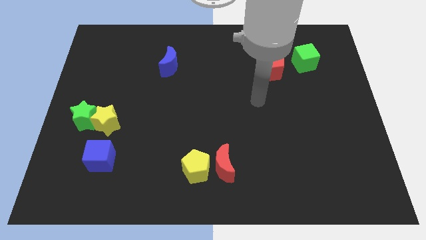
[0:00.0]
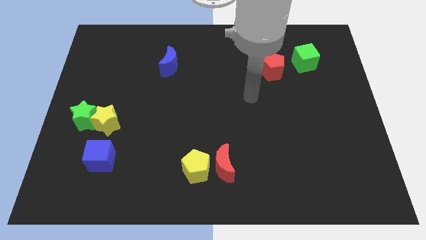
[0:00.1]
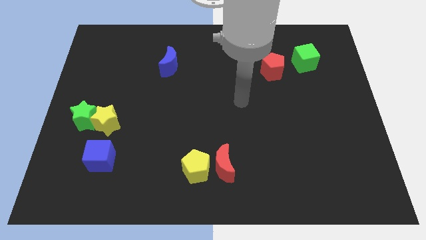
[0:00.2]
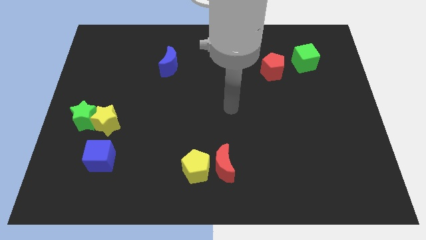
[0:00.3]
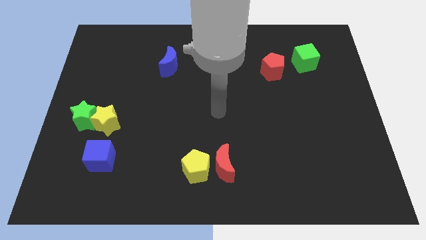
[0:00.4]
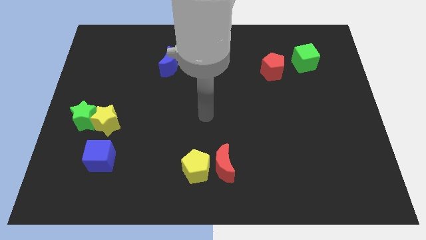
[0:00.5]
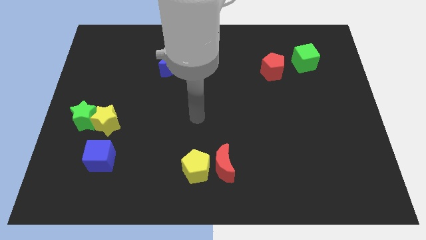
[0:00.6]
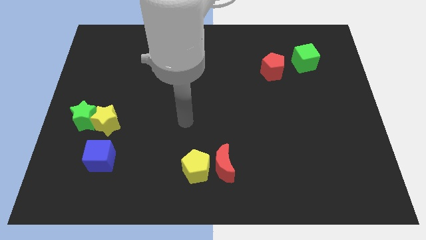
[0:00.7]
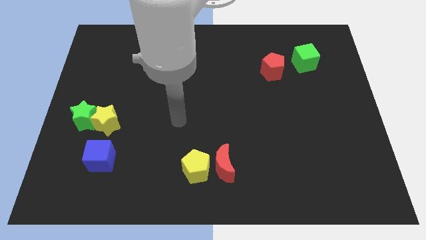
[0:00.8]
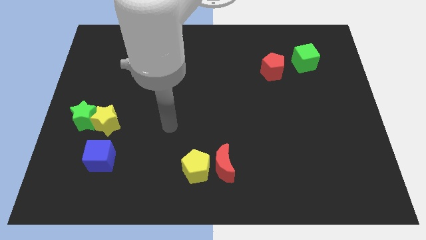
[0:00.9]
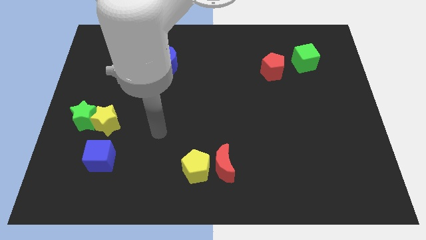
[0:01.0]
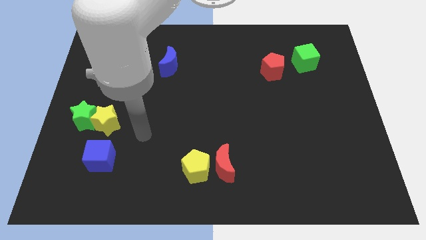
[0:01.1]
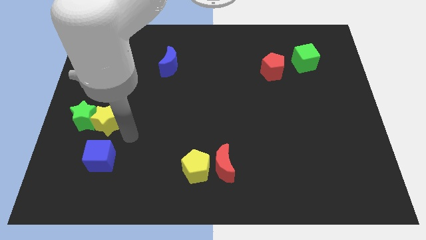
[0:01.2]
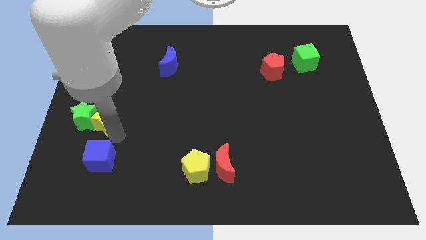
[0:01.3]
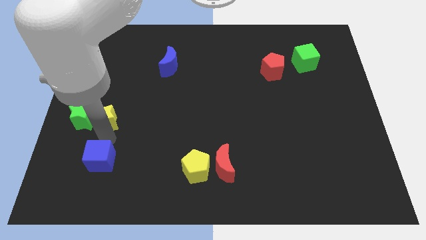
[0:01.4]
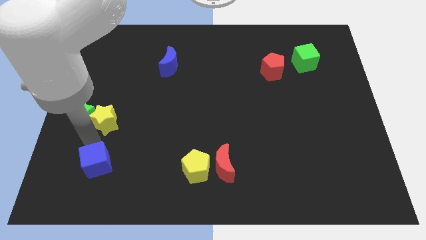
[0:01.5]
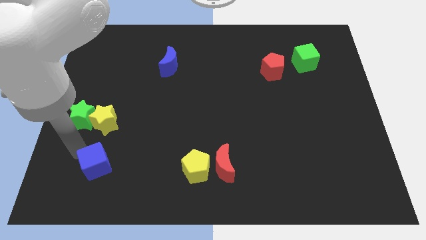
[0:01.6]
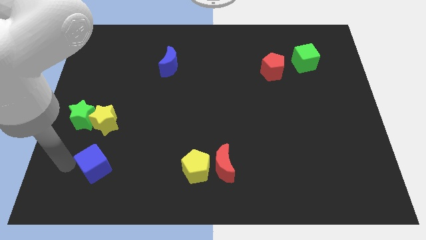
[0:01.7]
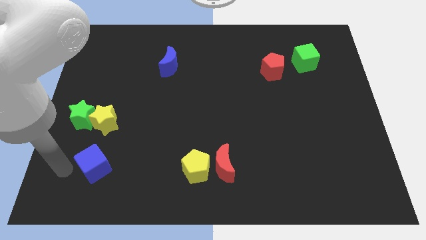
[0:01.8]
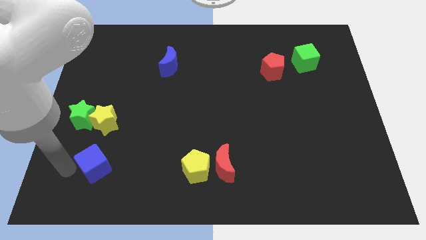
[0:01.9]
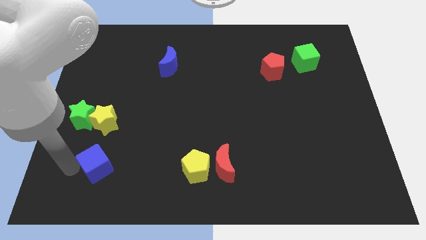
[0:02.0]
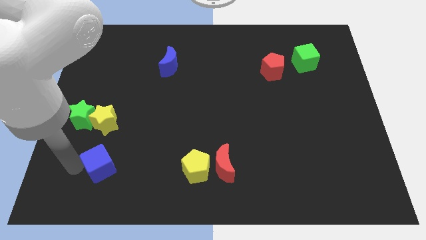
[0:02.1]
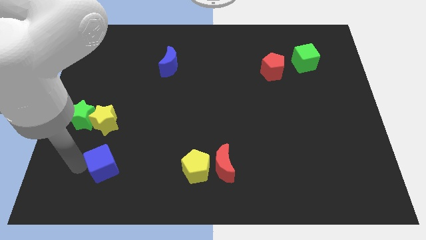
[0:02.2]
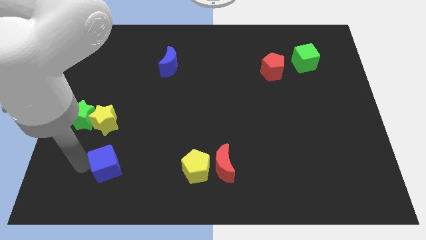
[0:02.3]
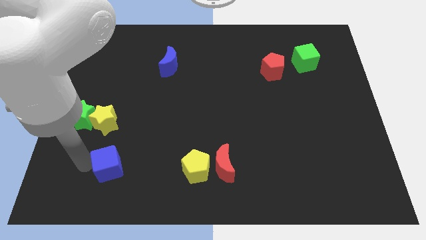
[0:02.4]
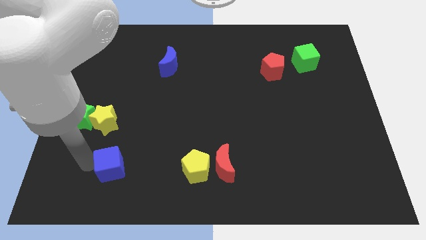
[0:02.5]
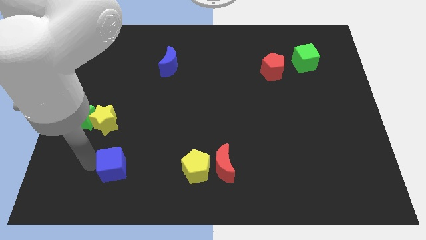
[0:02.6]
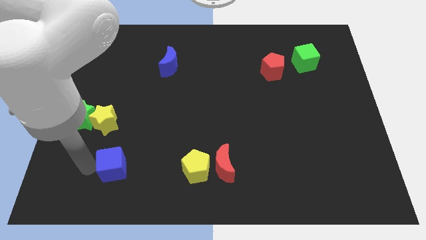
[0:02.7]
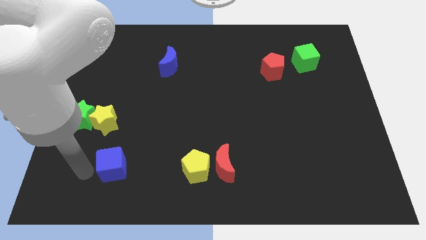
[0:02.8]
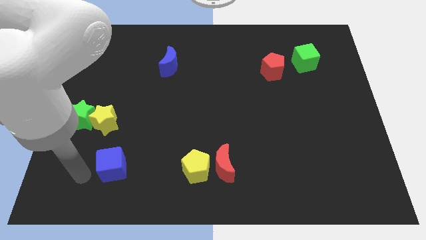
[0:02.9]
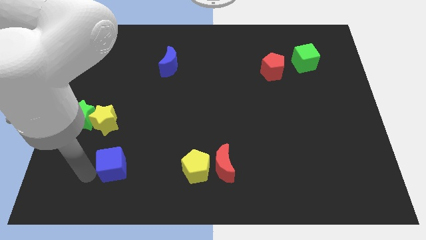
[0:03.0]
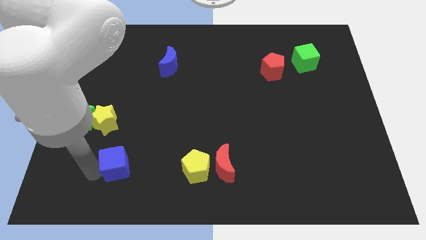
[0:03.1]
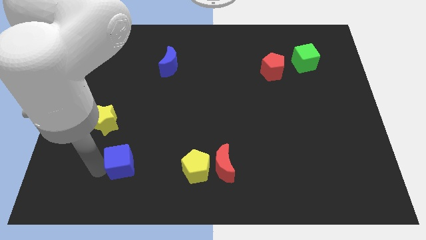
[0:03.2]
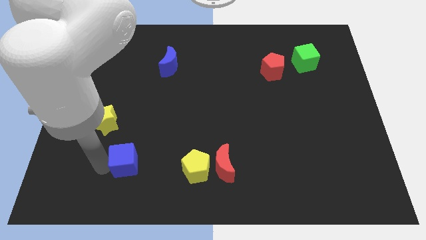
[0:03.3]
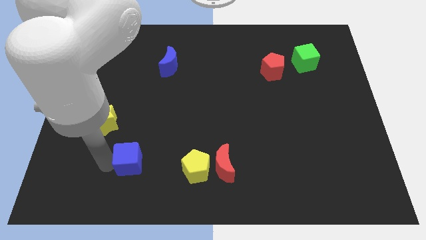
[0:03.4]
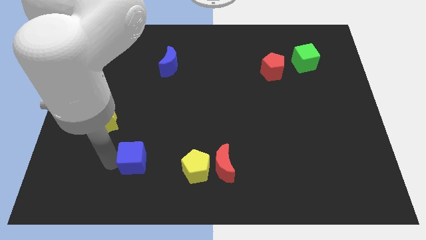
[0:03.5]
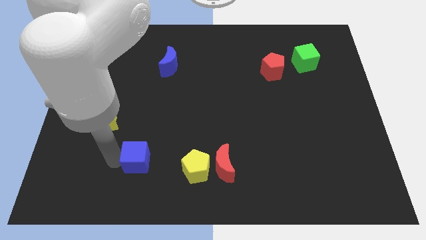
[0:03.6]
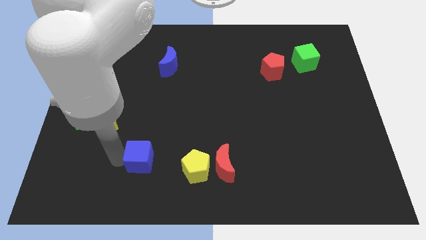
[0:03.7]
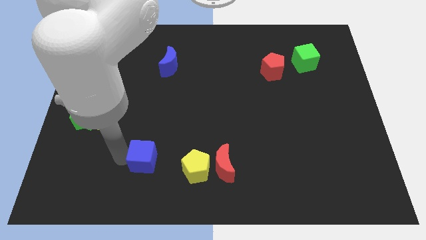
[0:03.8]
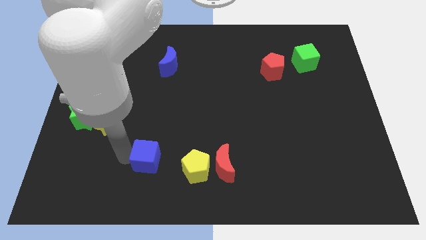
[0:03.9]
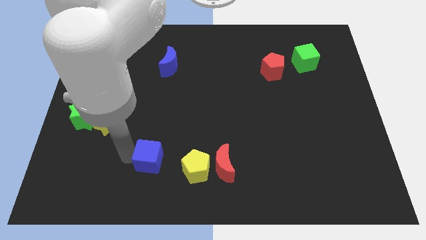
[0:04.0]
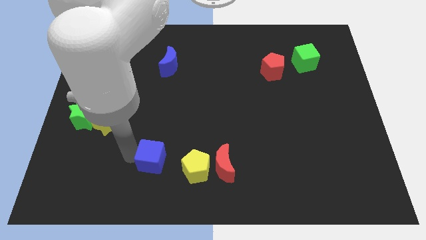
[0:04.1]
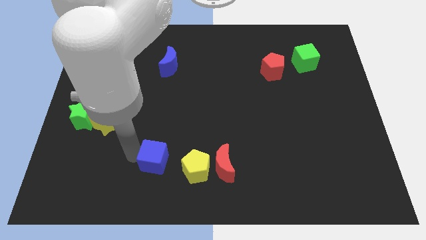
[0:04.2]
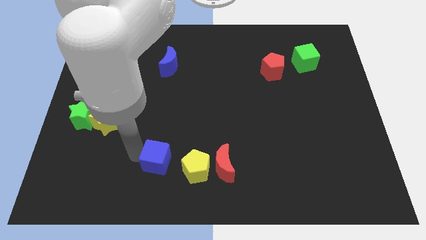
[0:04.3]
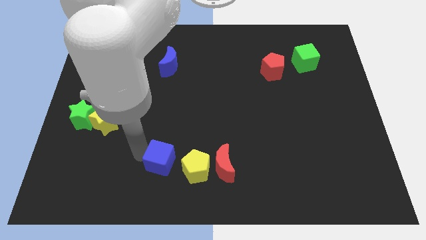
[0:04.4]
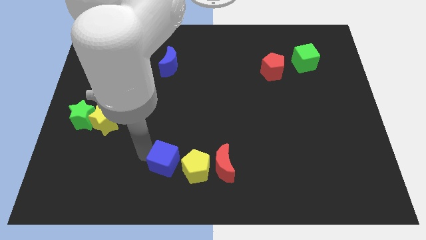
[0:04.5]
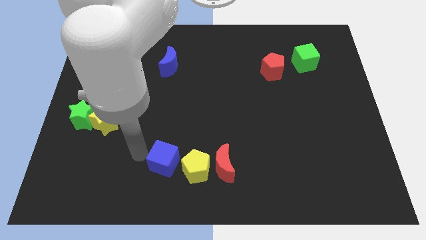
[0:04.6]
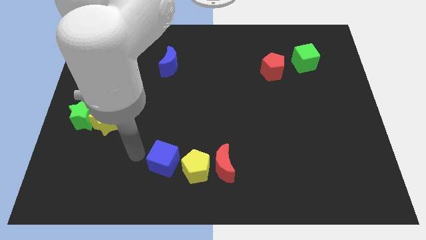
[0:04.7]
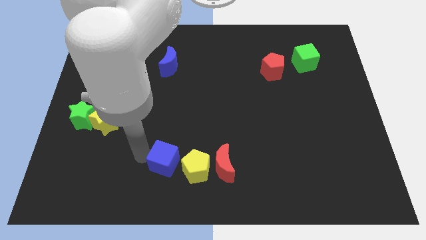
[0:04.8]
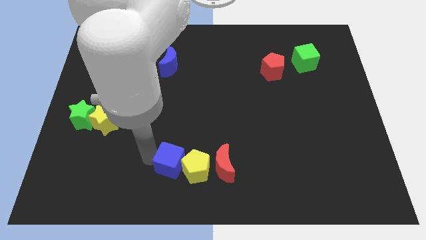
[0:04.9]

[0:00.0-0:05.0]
put the blue cube towards the yellow pentagon

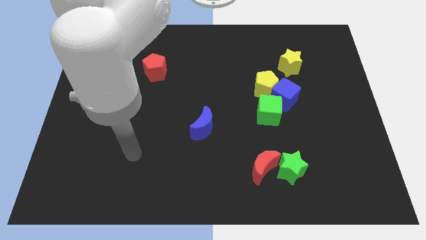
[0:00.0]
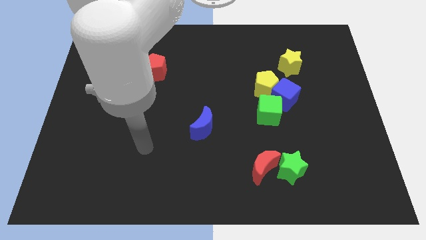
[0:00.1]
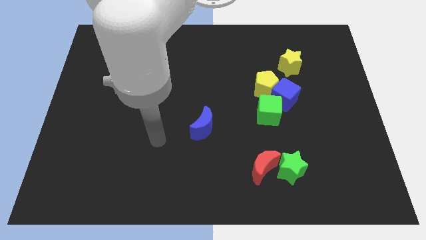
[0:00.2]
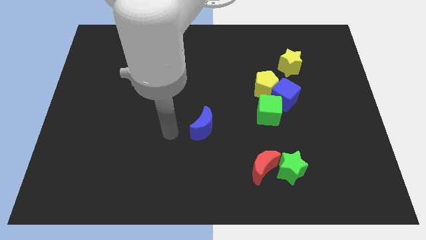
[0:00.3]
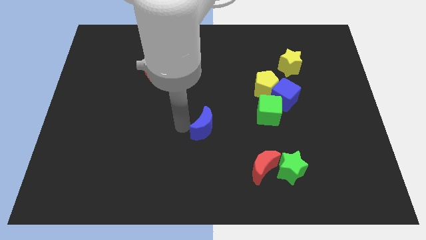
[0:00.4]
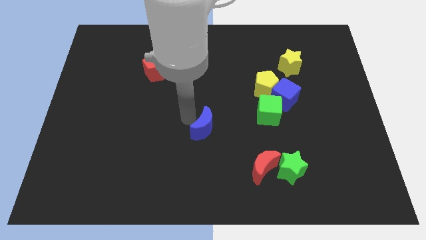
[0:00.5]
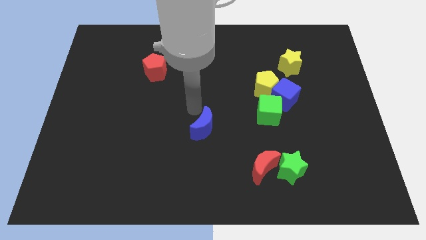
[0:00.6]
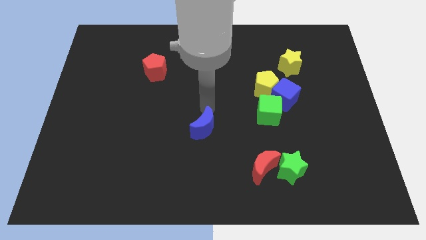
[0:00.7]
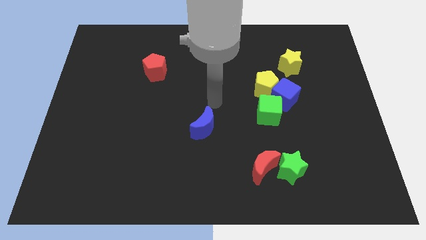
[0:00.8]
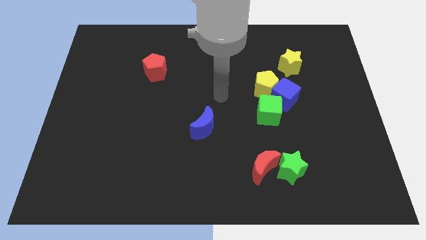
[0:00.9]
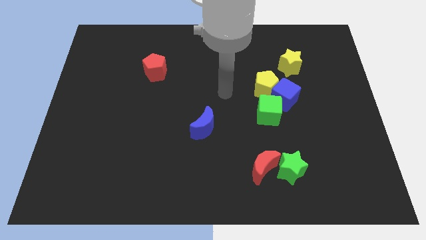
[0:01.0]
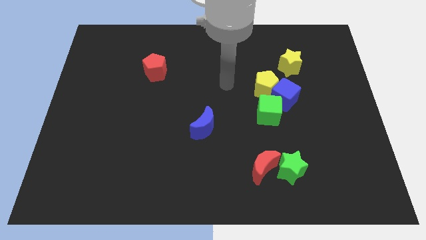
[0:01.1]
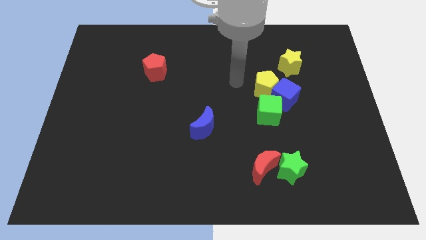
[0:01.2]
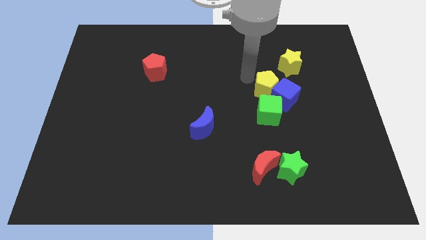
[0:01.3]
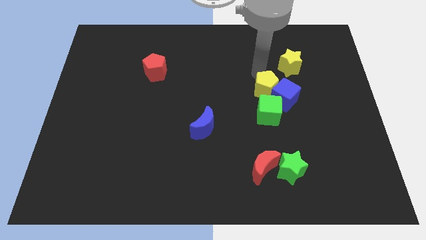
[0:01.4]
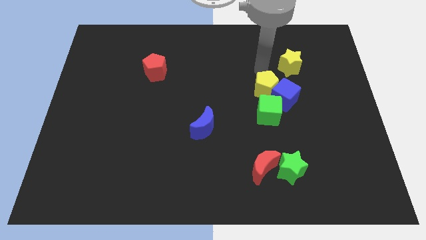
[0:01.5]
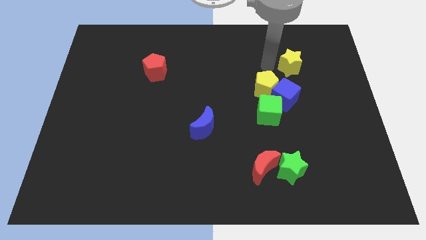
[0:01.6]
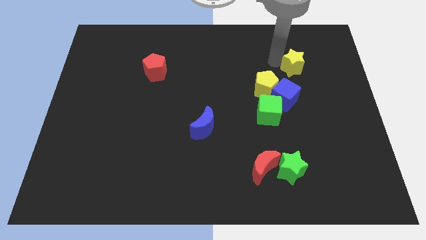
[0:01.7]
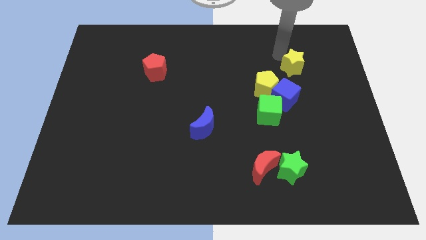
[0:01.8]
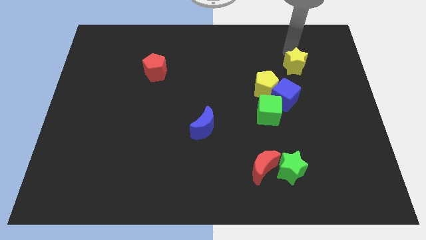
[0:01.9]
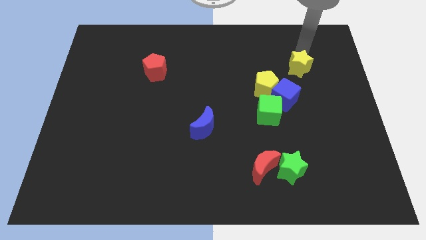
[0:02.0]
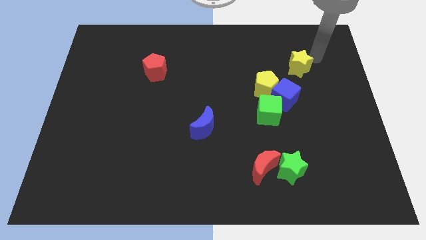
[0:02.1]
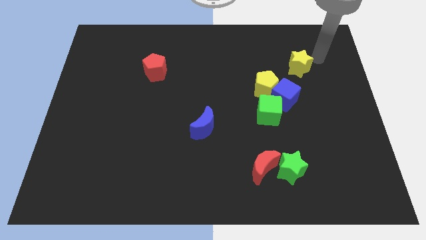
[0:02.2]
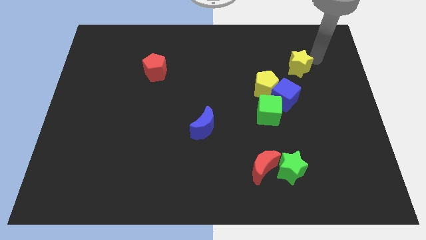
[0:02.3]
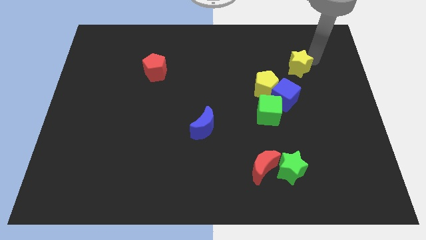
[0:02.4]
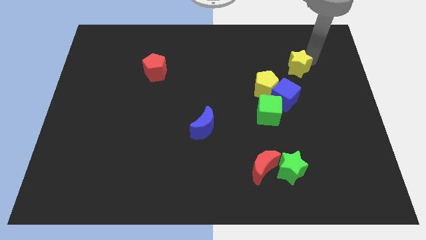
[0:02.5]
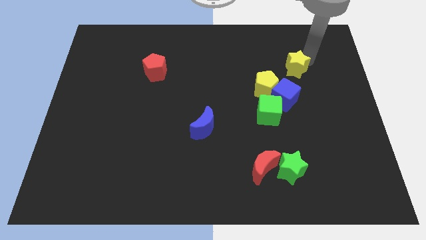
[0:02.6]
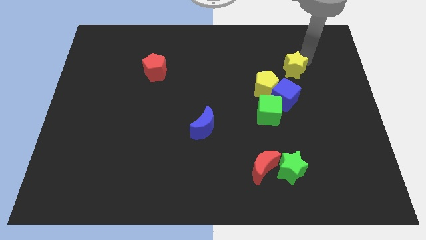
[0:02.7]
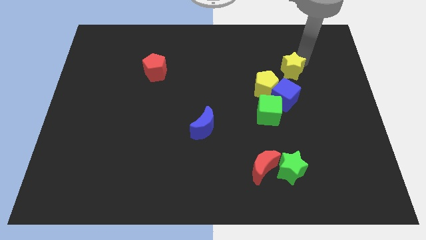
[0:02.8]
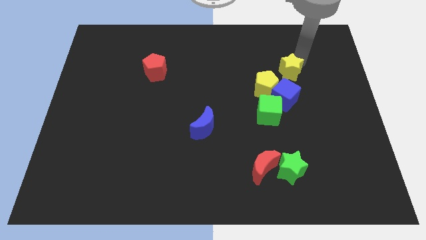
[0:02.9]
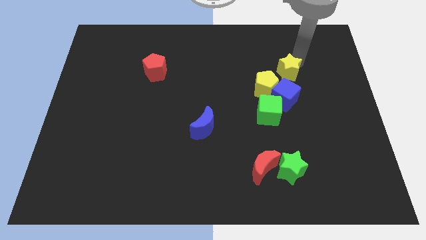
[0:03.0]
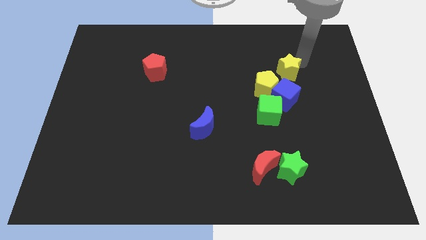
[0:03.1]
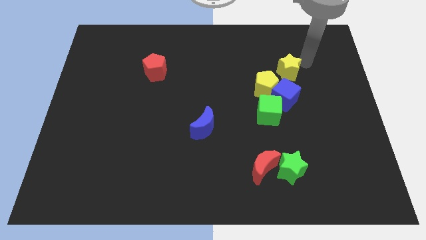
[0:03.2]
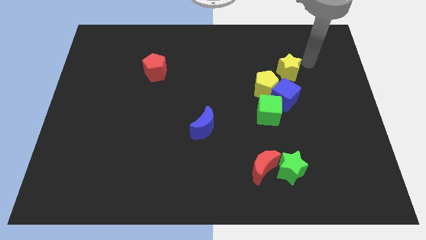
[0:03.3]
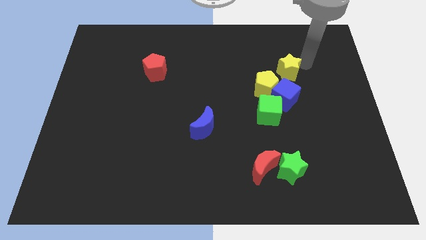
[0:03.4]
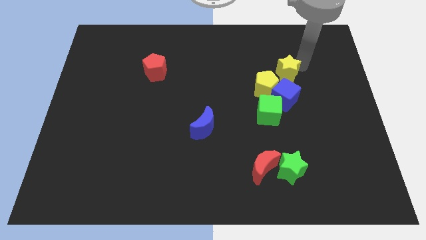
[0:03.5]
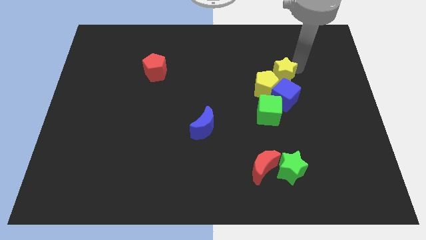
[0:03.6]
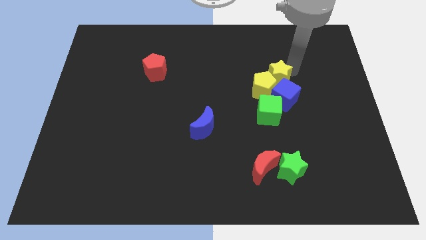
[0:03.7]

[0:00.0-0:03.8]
put the yellow star next to the yellow pentagon
